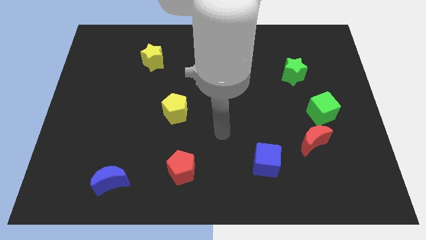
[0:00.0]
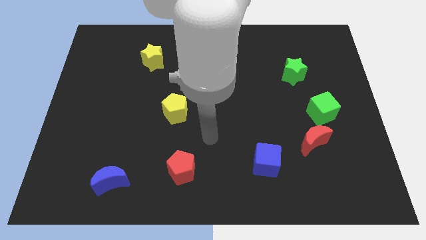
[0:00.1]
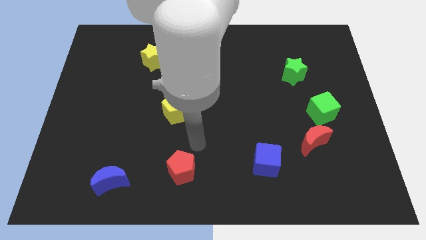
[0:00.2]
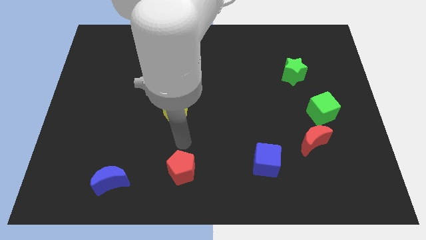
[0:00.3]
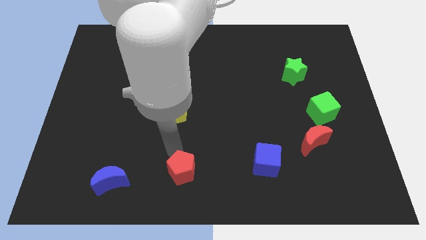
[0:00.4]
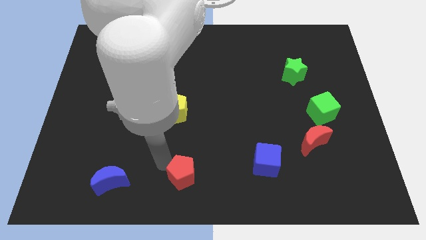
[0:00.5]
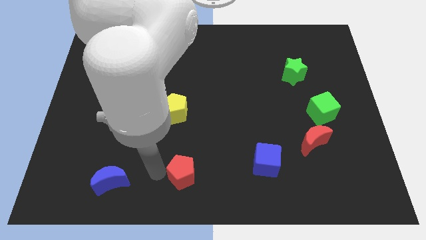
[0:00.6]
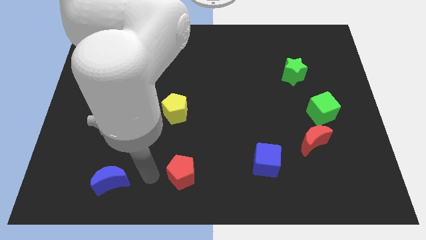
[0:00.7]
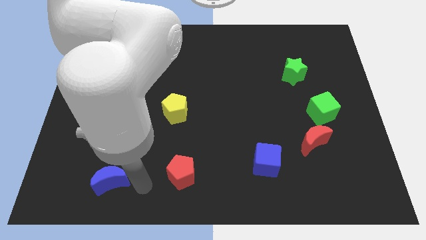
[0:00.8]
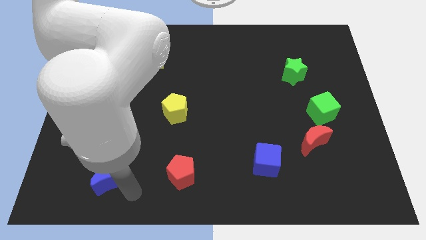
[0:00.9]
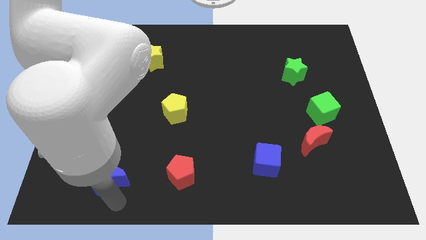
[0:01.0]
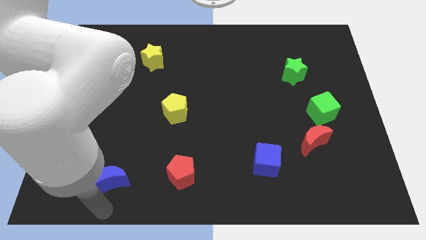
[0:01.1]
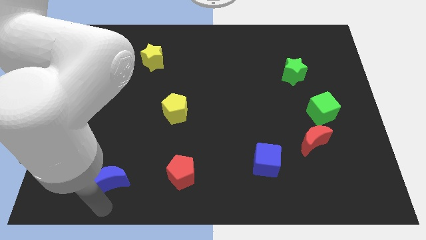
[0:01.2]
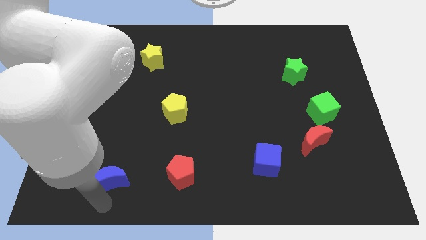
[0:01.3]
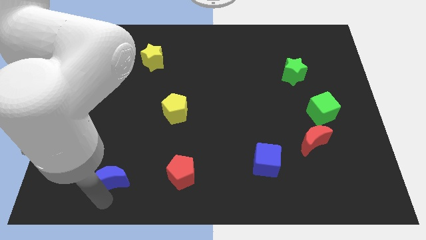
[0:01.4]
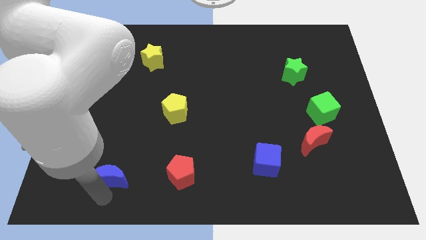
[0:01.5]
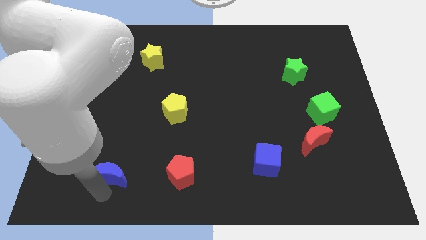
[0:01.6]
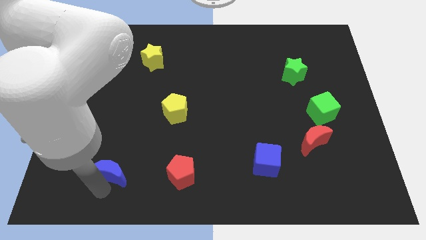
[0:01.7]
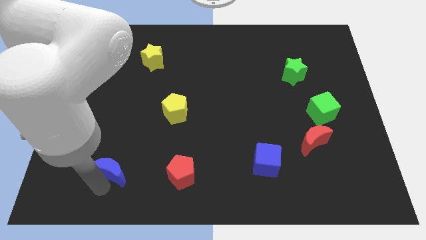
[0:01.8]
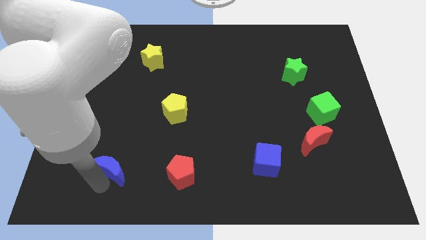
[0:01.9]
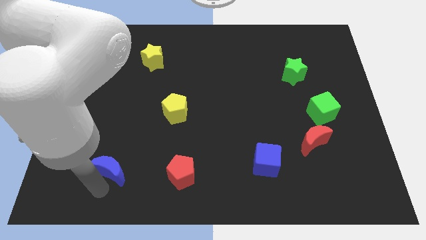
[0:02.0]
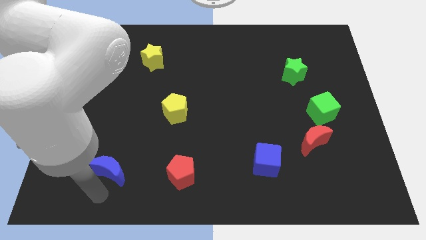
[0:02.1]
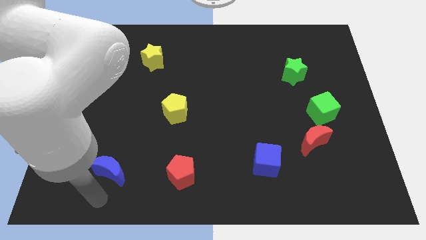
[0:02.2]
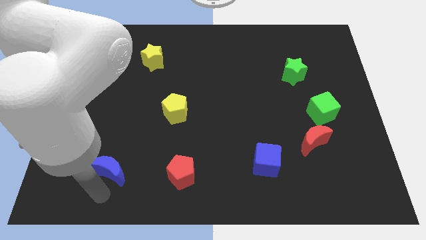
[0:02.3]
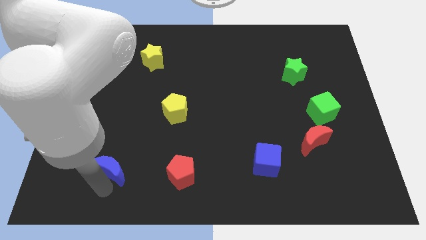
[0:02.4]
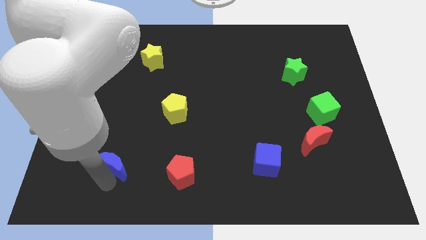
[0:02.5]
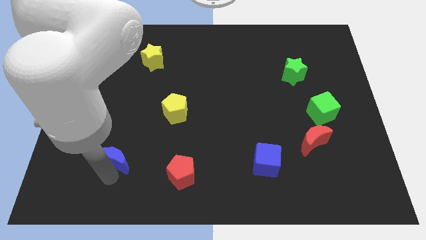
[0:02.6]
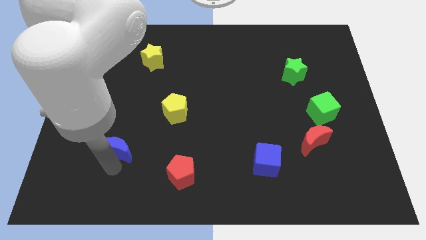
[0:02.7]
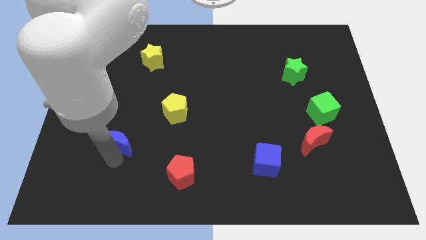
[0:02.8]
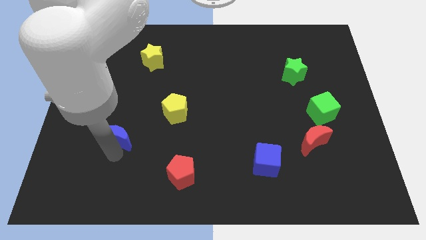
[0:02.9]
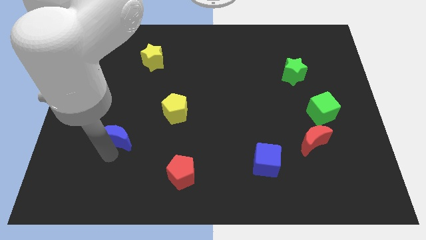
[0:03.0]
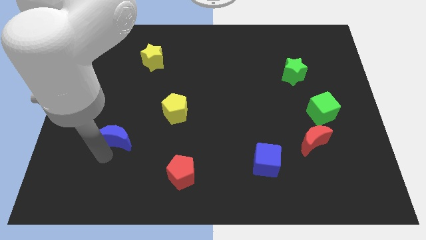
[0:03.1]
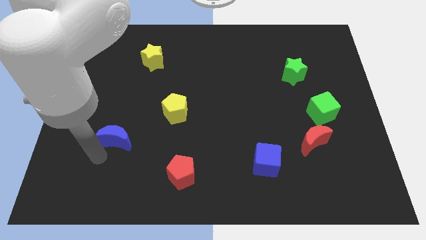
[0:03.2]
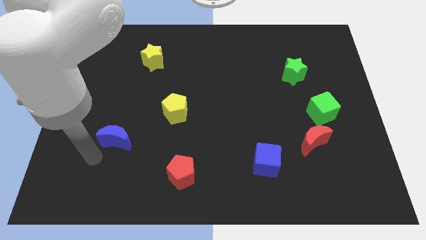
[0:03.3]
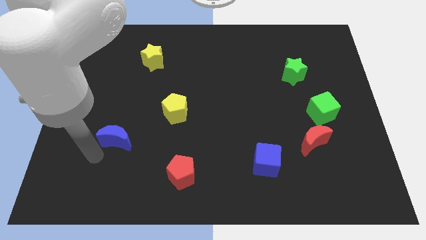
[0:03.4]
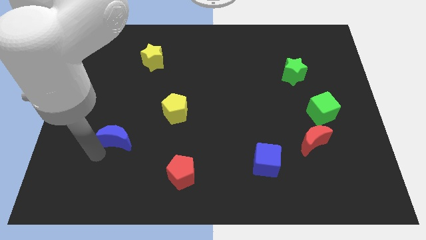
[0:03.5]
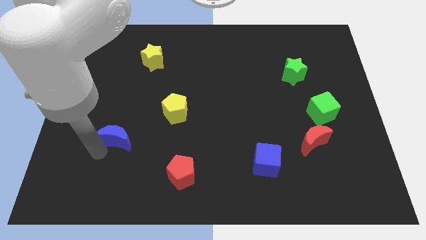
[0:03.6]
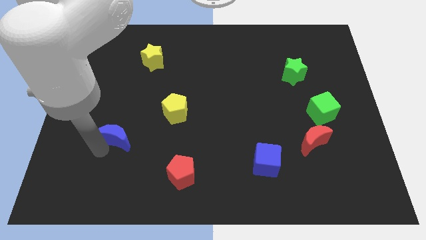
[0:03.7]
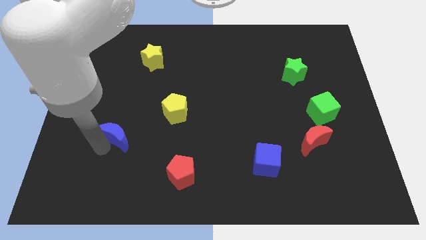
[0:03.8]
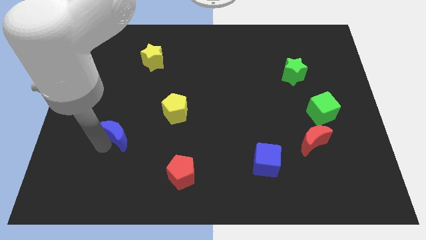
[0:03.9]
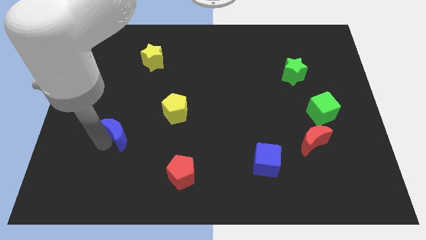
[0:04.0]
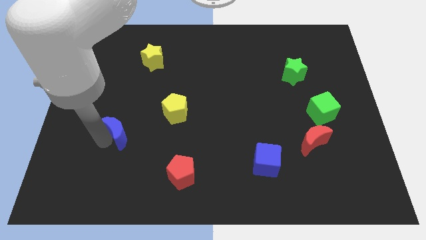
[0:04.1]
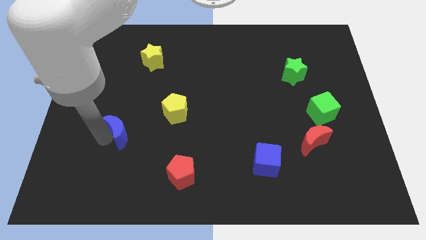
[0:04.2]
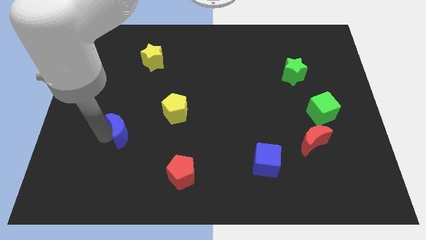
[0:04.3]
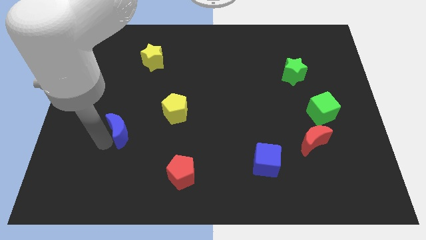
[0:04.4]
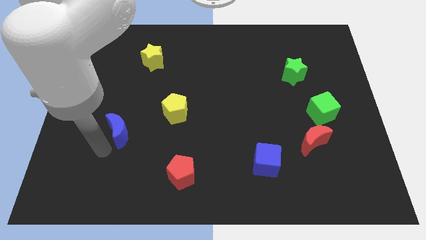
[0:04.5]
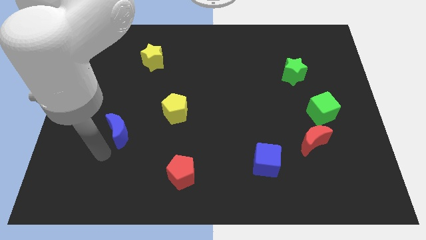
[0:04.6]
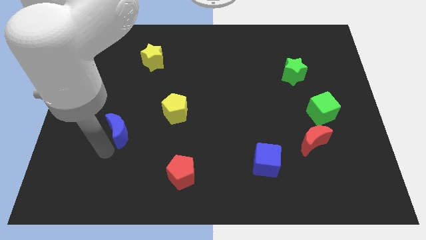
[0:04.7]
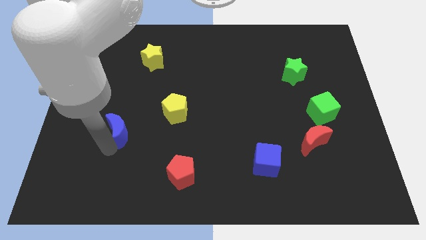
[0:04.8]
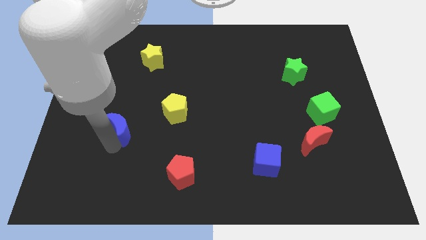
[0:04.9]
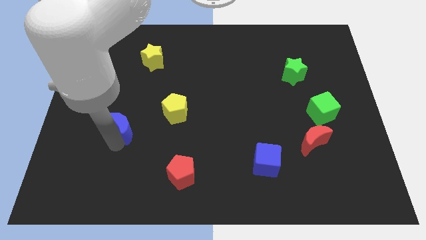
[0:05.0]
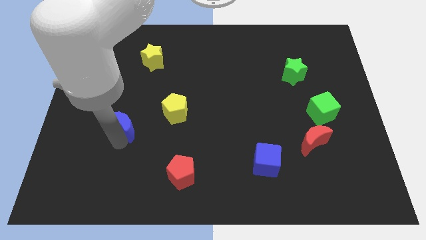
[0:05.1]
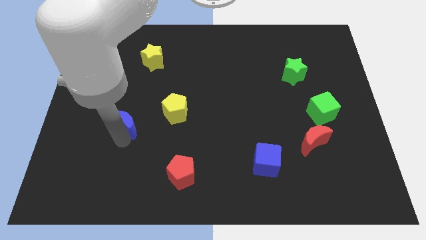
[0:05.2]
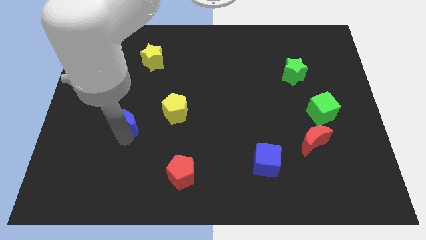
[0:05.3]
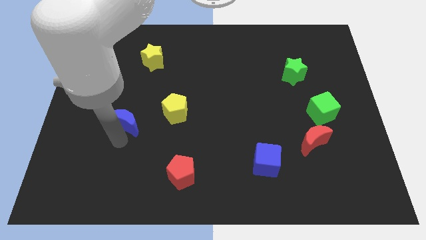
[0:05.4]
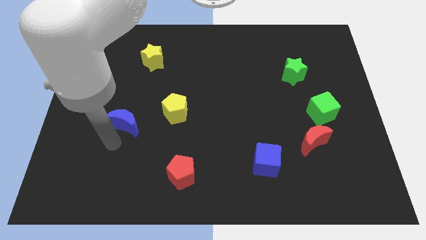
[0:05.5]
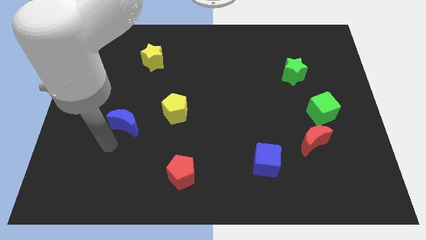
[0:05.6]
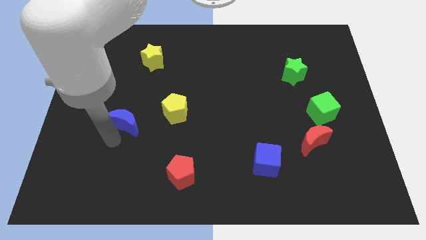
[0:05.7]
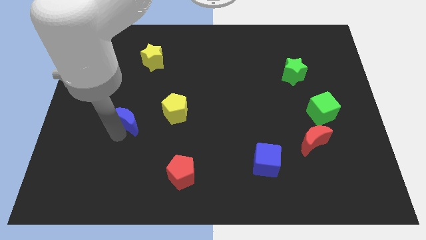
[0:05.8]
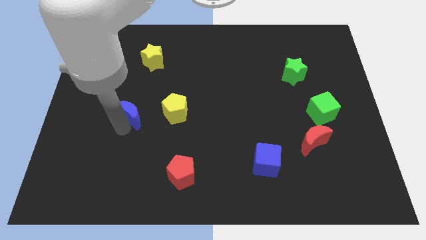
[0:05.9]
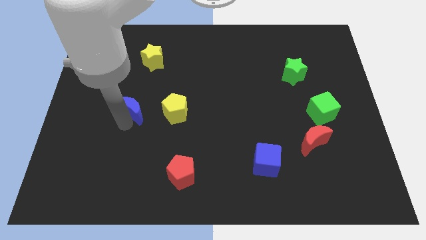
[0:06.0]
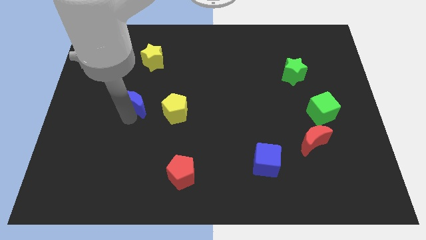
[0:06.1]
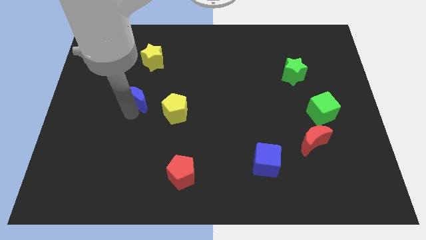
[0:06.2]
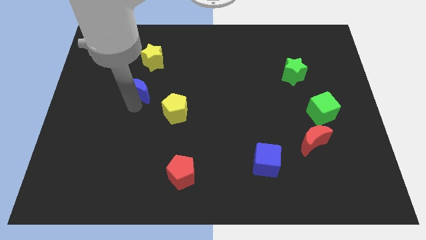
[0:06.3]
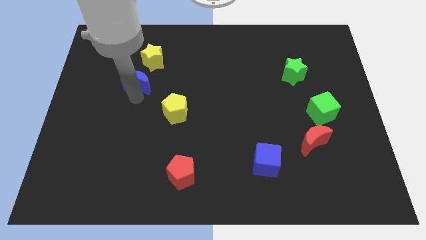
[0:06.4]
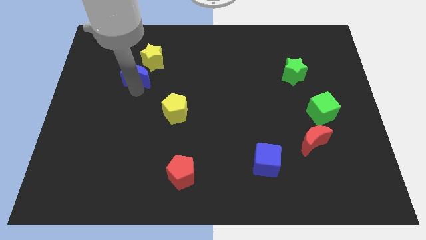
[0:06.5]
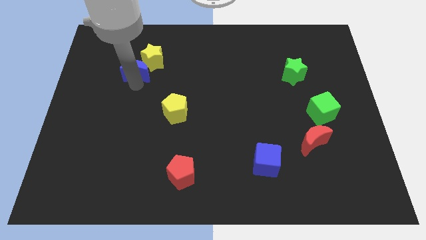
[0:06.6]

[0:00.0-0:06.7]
push the blue moon close to the yellow star

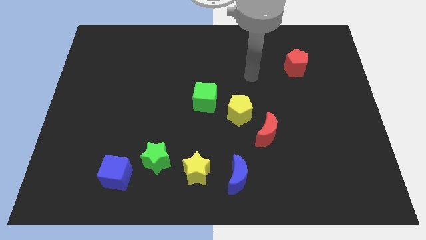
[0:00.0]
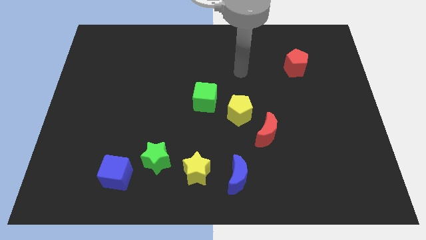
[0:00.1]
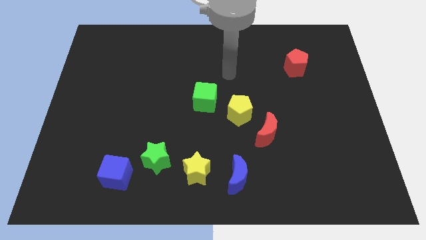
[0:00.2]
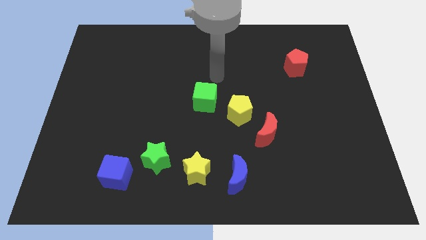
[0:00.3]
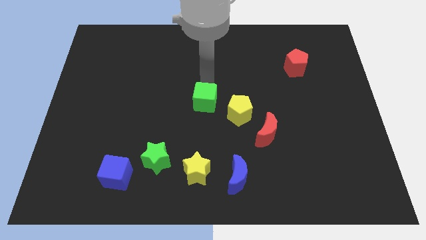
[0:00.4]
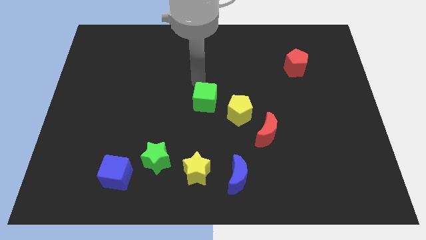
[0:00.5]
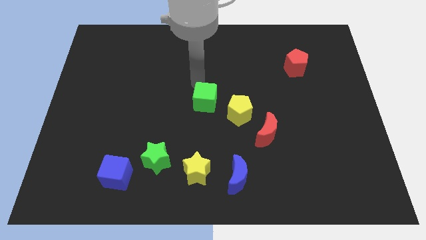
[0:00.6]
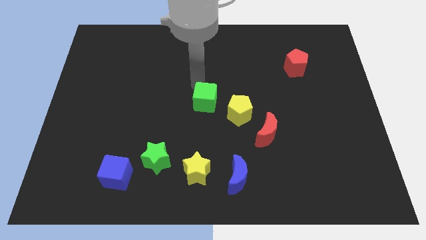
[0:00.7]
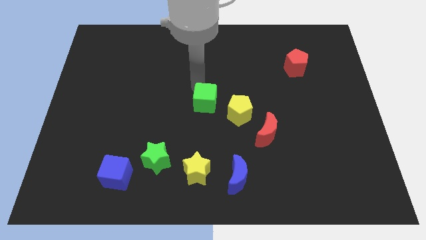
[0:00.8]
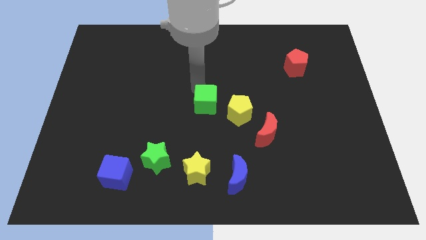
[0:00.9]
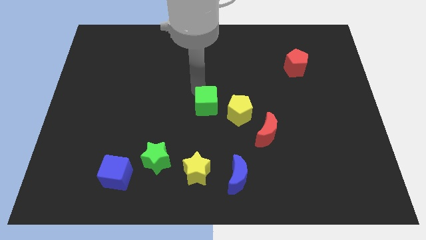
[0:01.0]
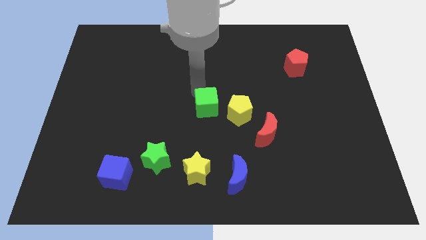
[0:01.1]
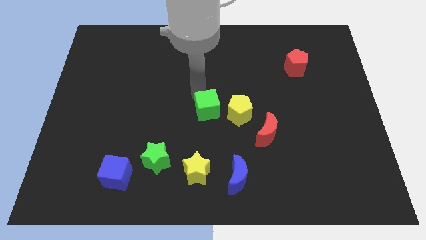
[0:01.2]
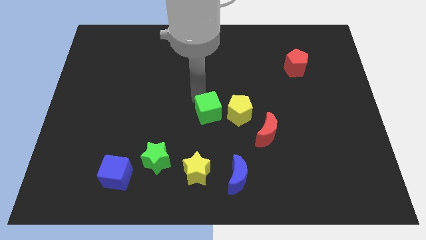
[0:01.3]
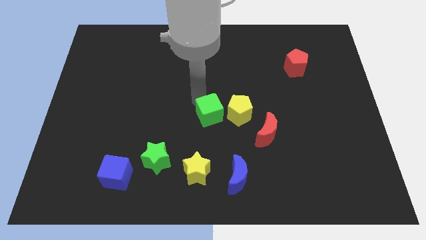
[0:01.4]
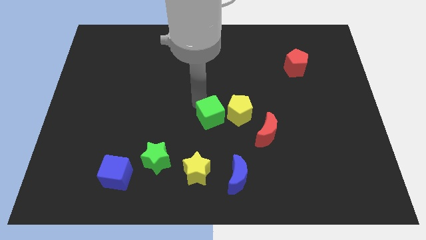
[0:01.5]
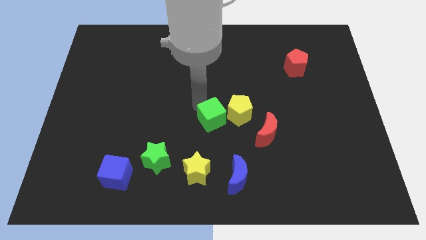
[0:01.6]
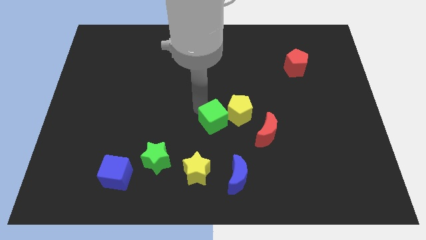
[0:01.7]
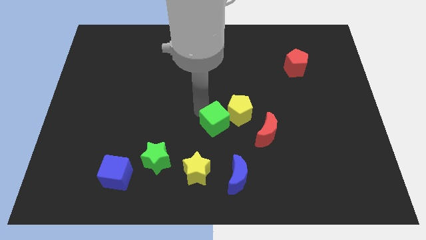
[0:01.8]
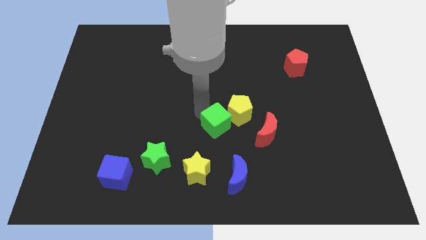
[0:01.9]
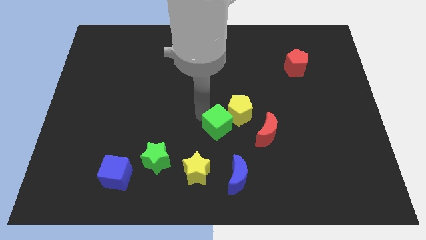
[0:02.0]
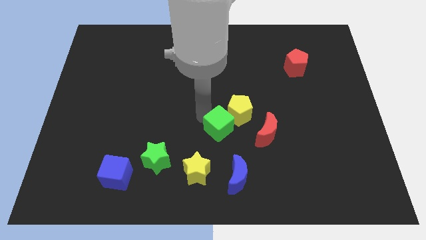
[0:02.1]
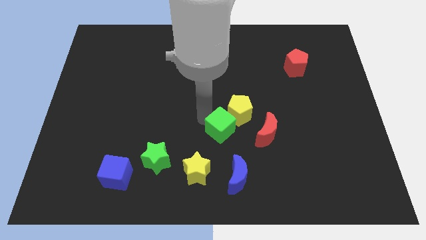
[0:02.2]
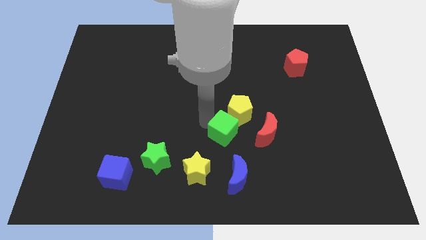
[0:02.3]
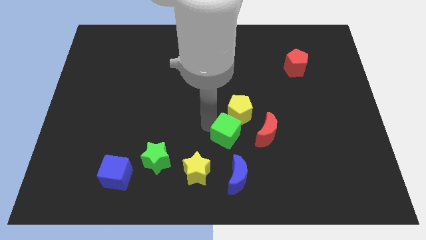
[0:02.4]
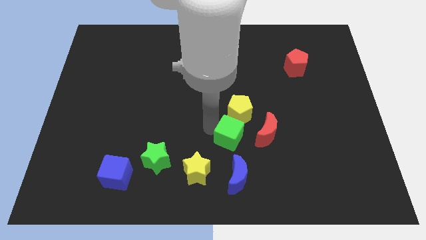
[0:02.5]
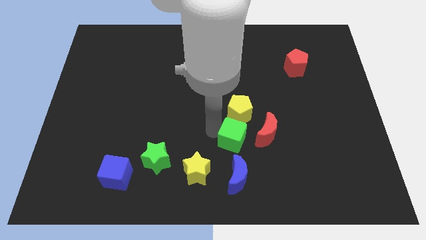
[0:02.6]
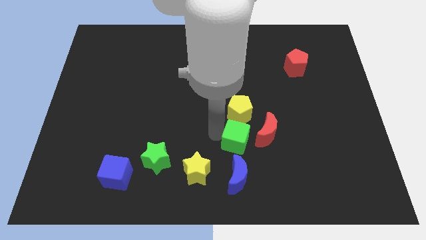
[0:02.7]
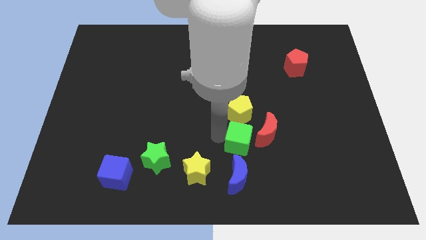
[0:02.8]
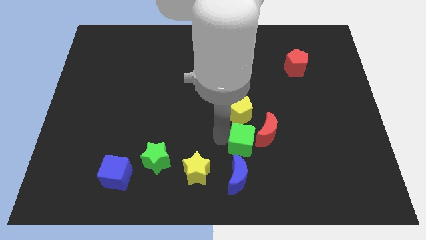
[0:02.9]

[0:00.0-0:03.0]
slide the green cube to the red moon
